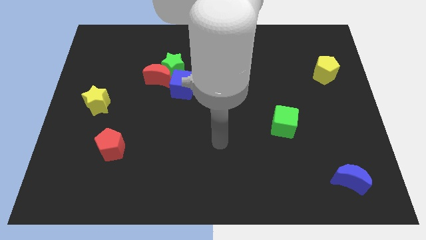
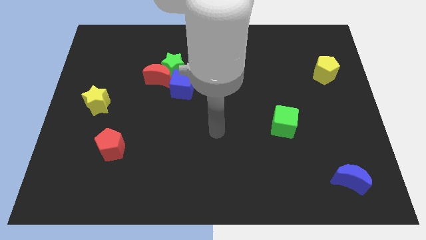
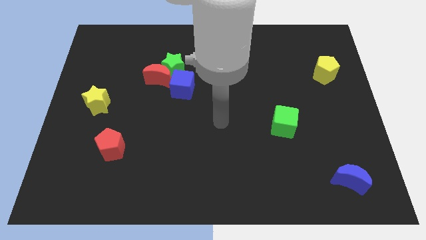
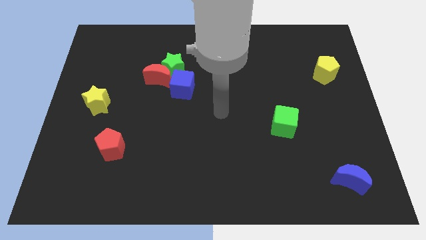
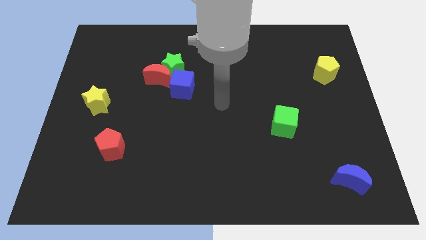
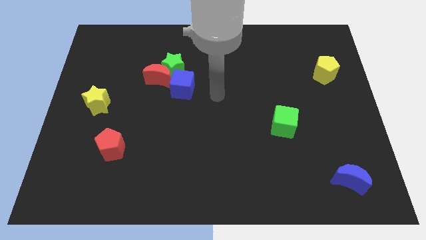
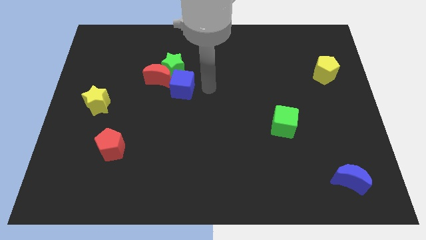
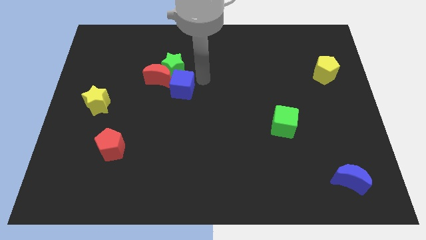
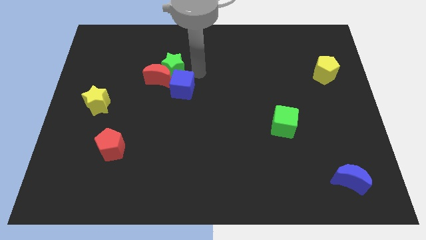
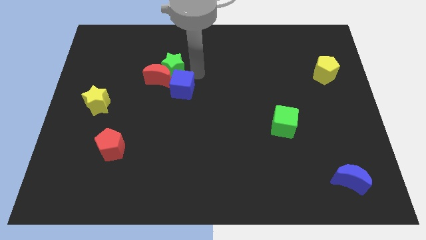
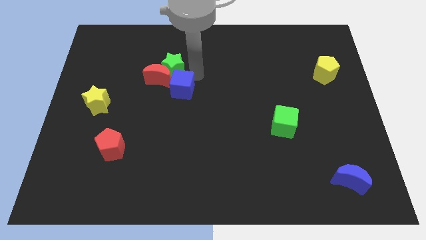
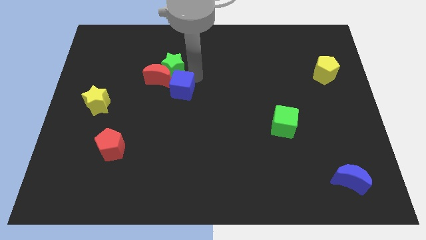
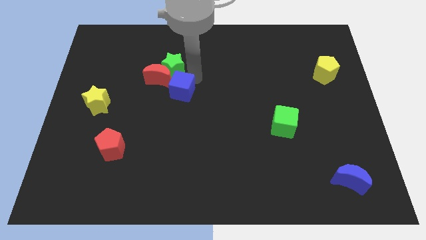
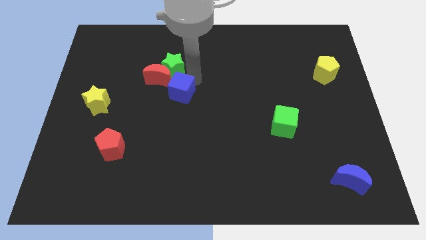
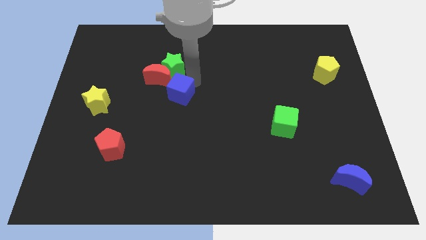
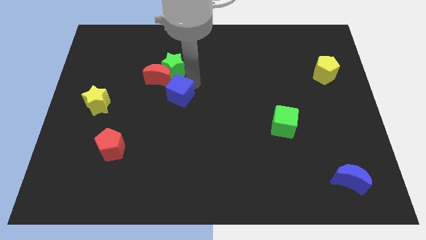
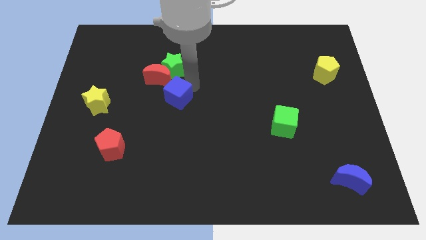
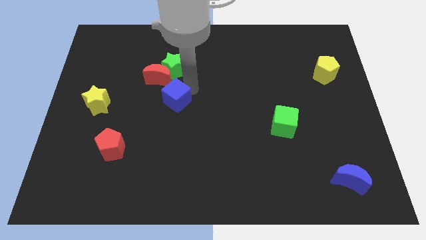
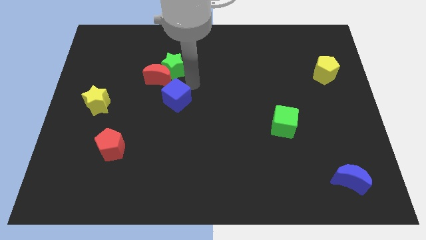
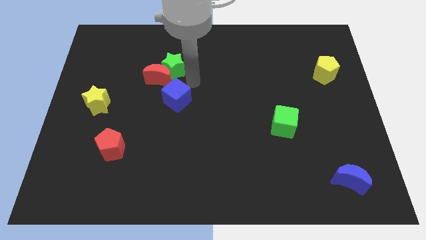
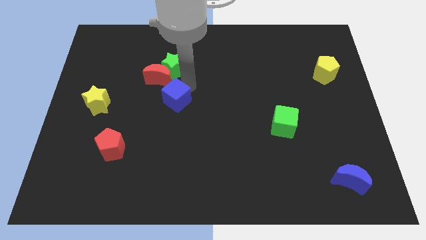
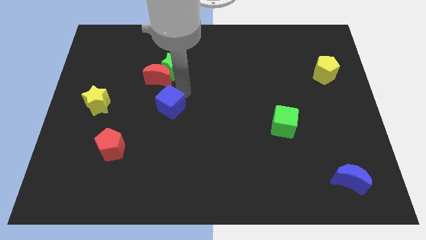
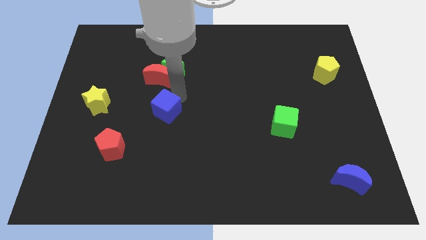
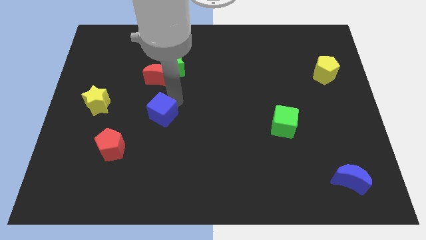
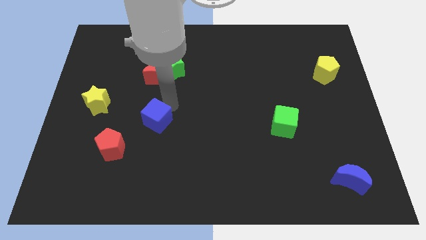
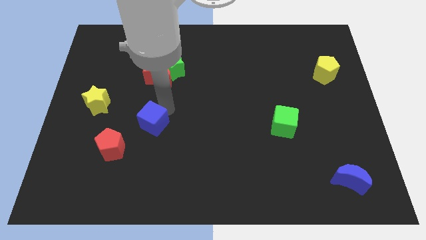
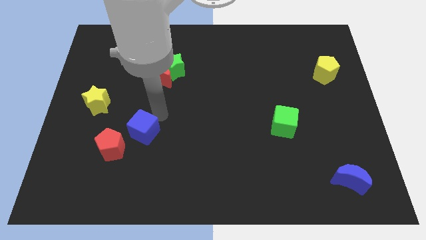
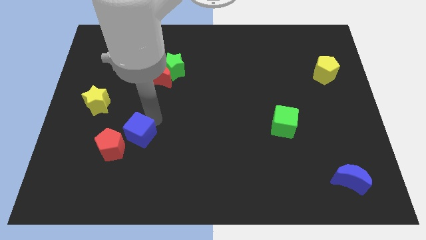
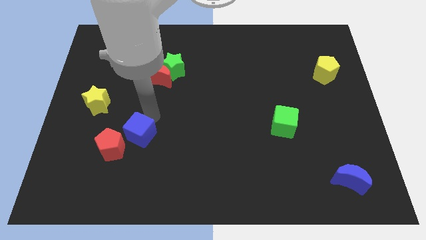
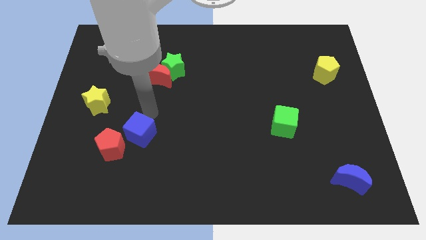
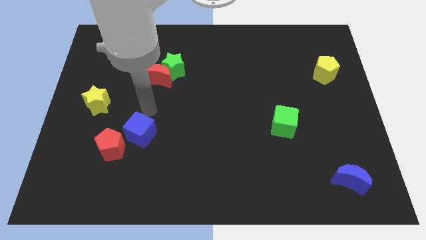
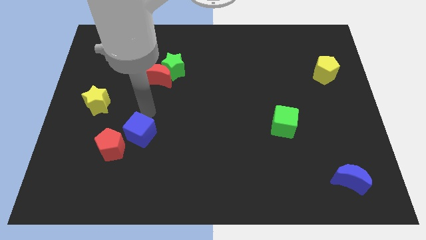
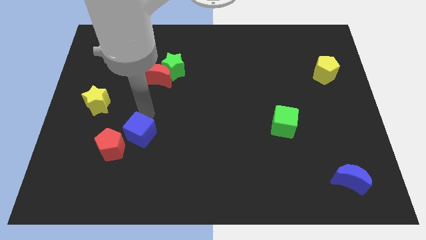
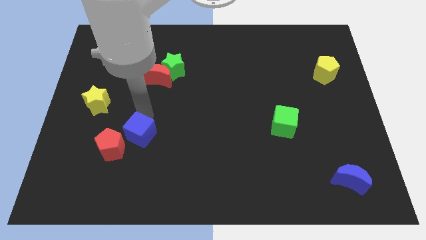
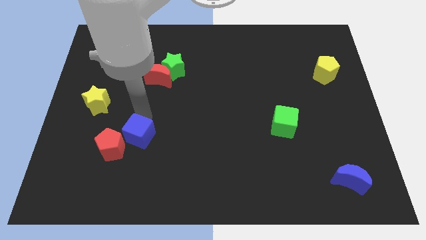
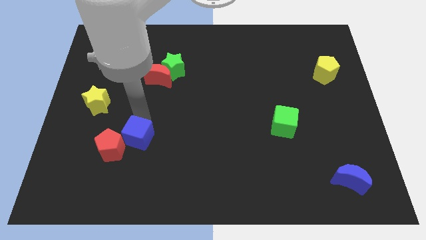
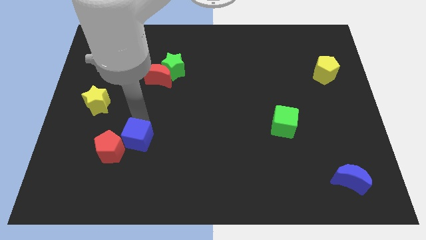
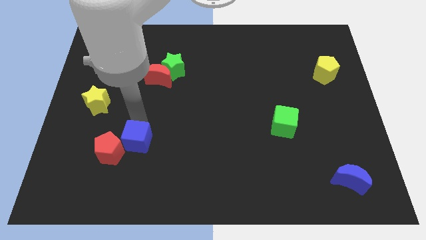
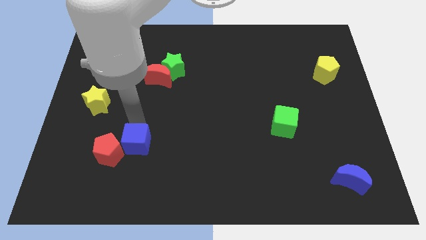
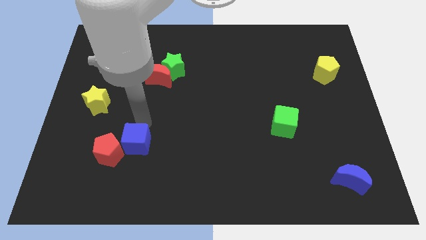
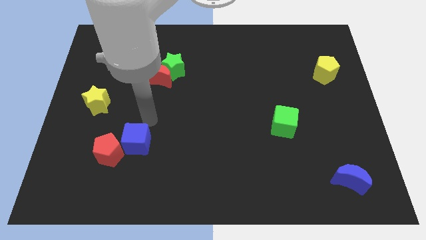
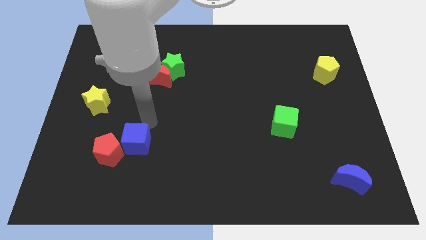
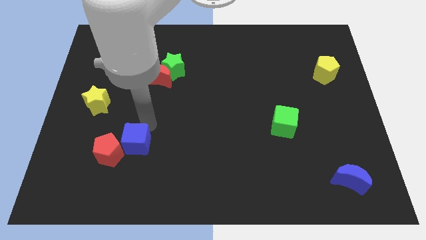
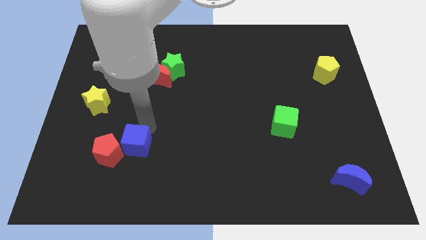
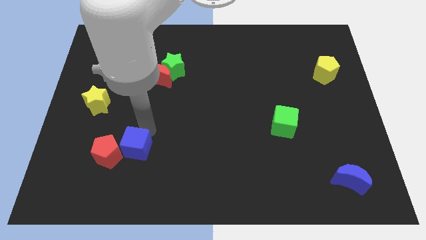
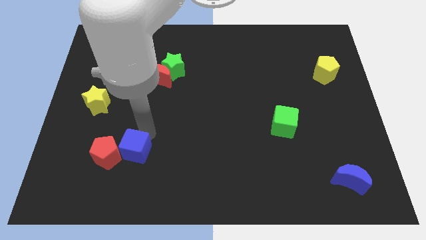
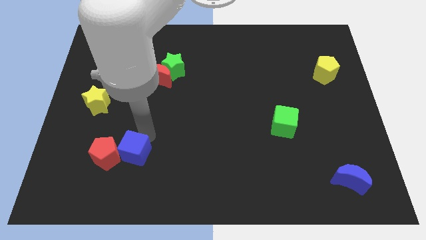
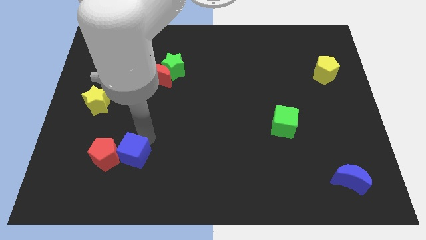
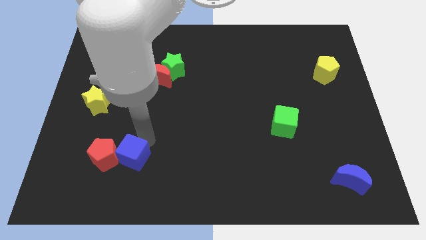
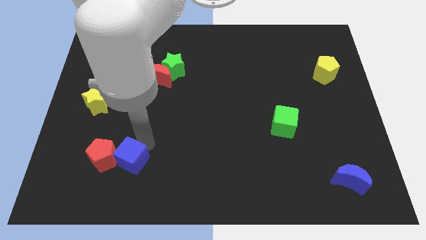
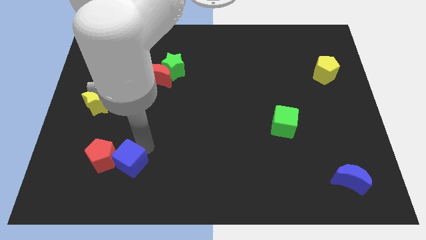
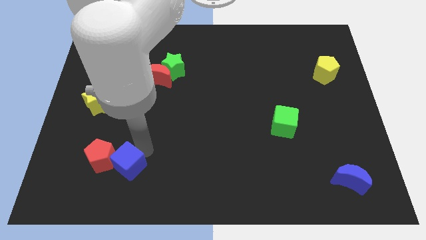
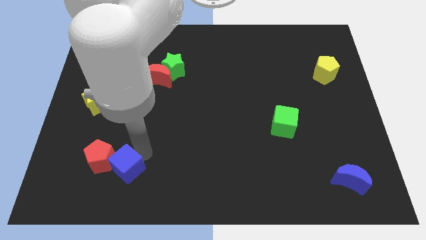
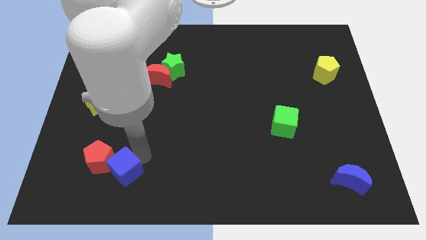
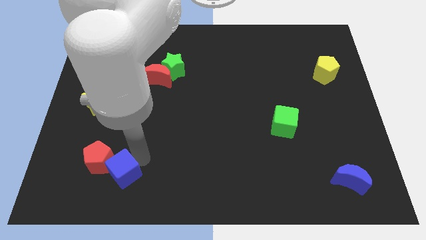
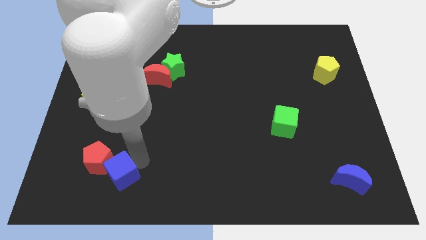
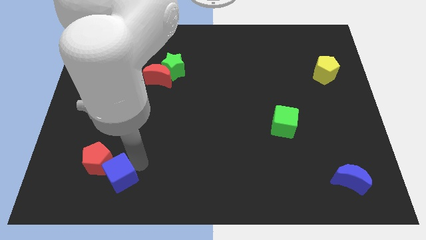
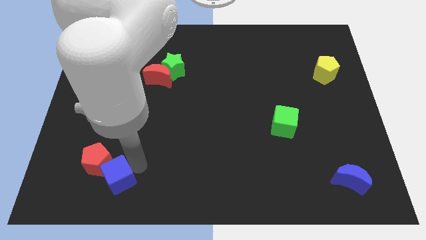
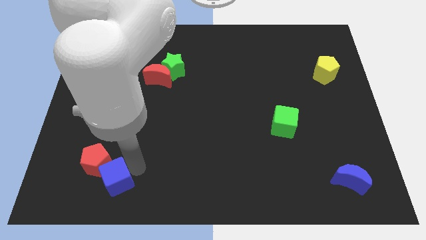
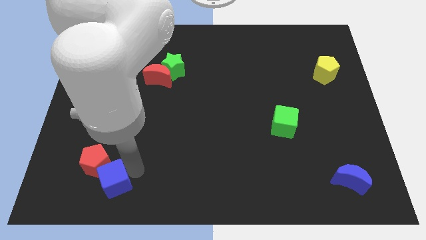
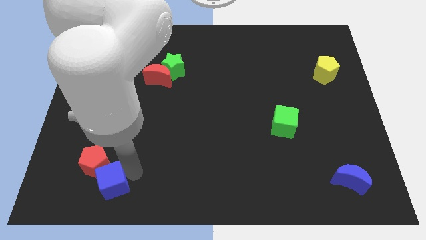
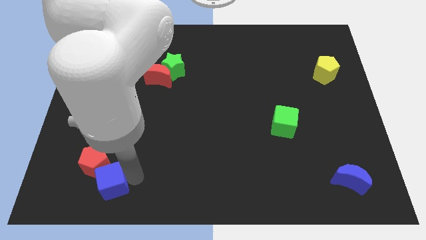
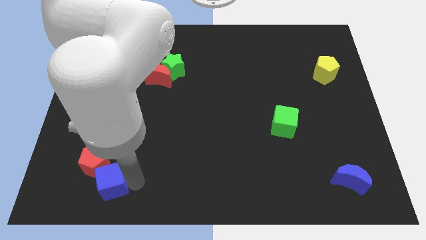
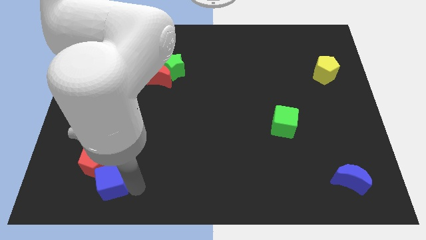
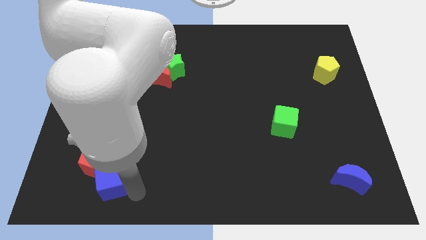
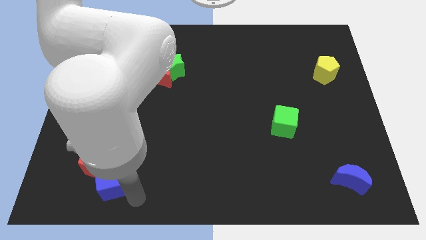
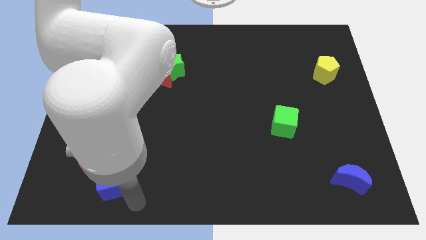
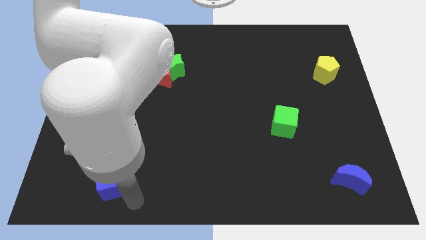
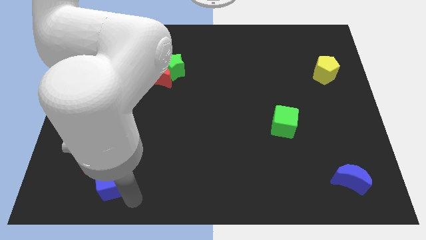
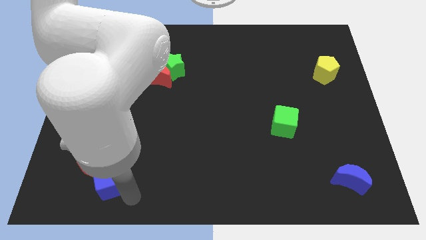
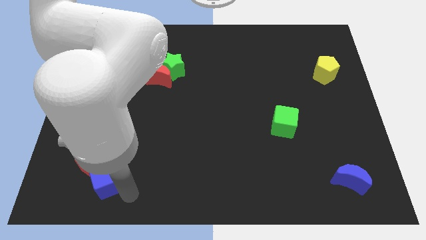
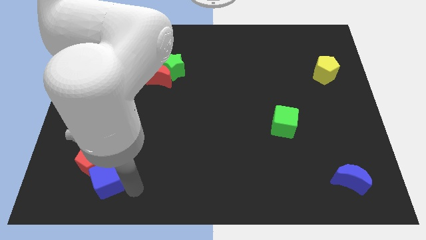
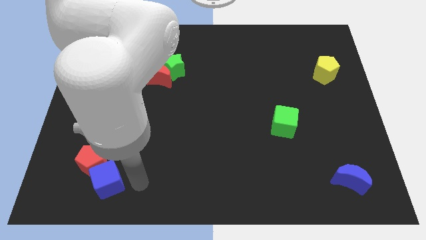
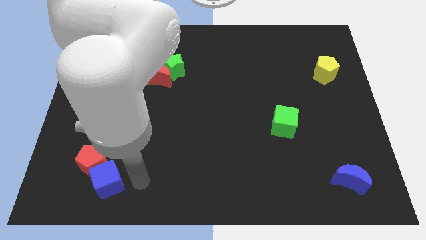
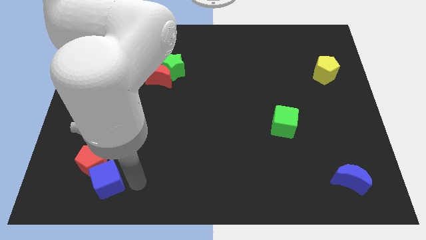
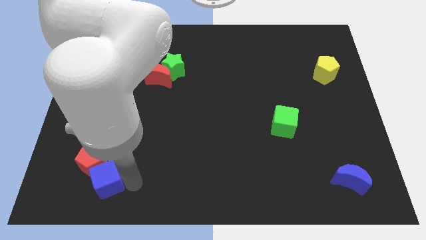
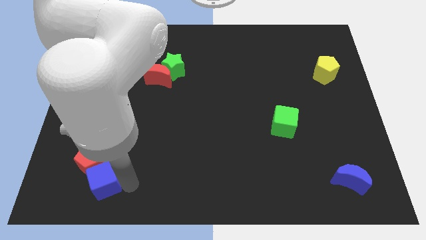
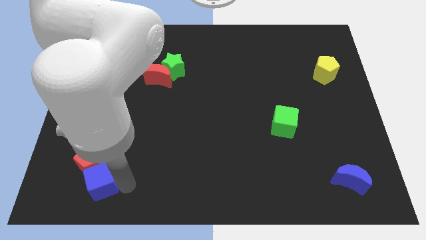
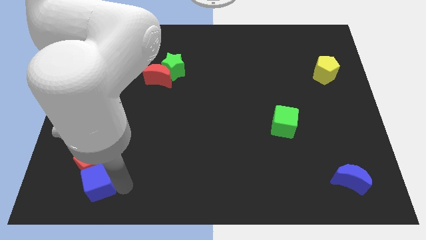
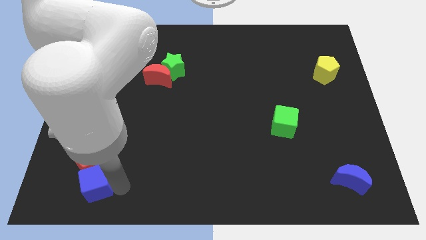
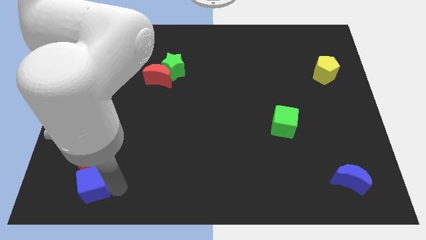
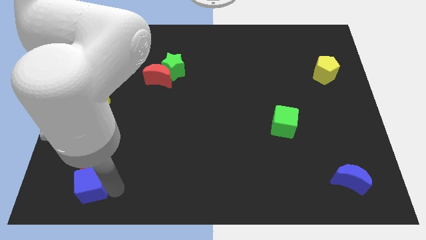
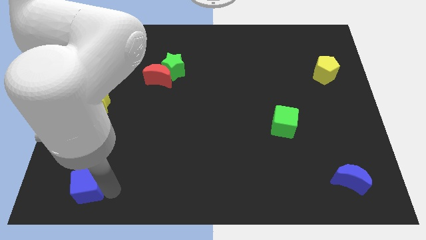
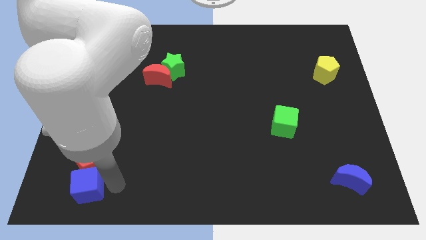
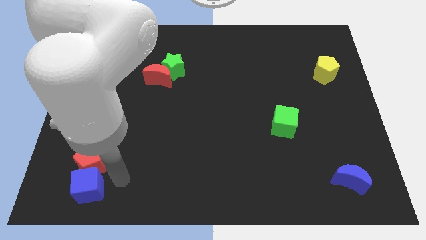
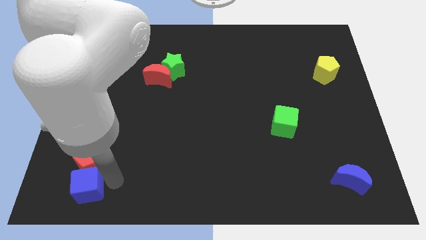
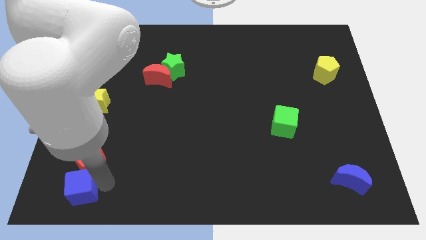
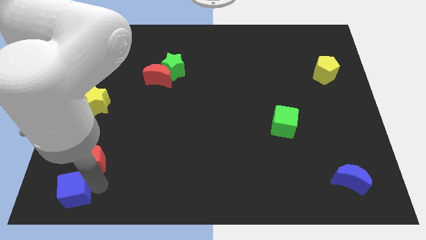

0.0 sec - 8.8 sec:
move the blue cube to the bottom left of the board
